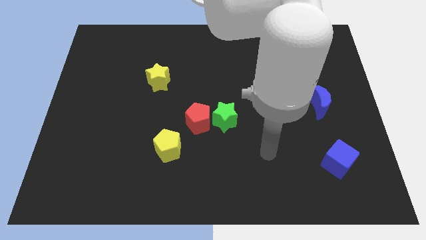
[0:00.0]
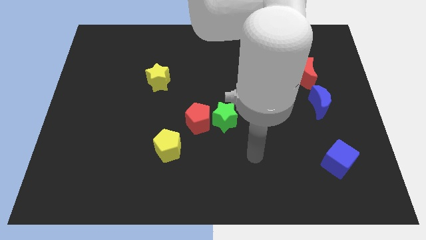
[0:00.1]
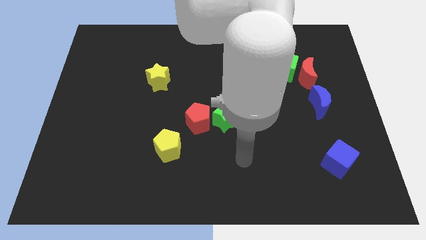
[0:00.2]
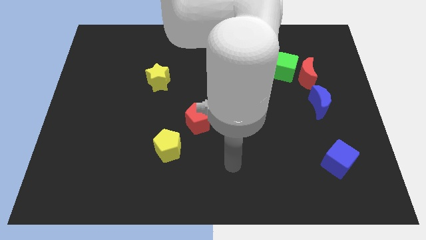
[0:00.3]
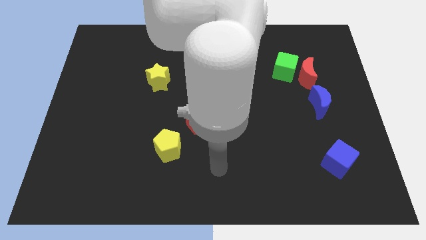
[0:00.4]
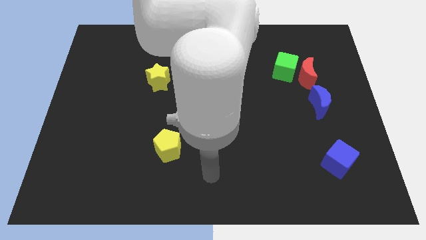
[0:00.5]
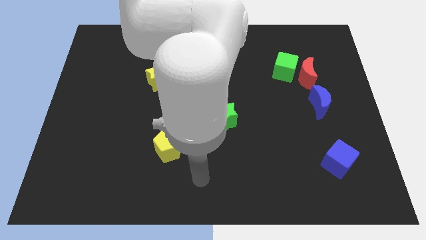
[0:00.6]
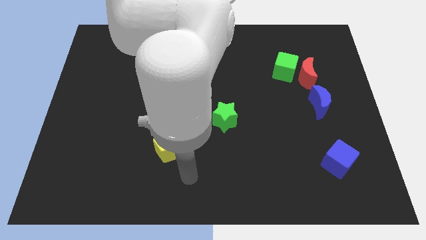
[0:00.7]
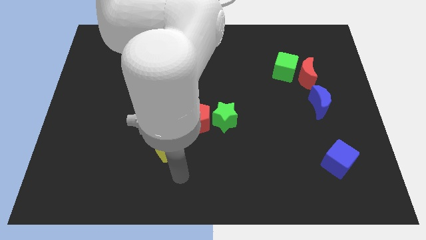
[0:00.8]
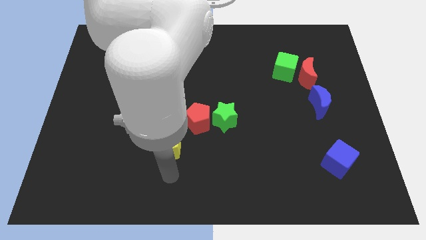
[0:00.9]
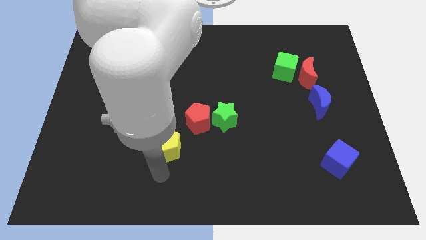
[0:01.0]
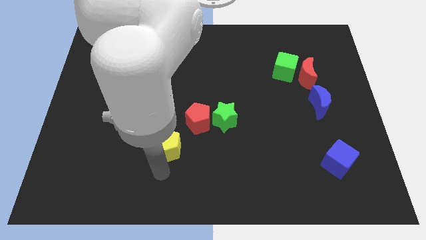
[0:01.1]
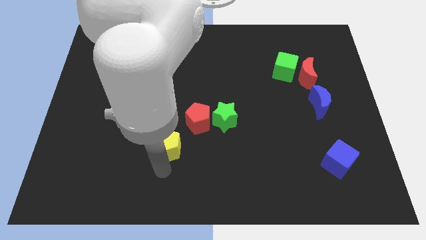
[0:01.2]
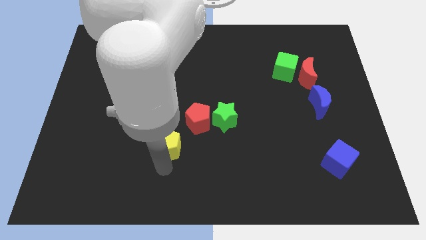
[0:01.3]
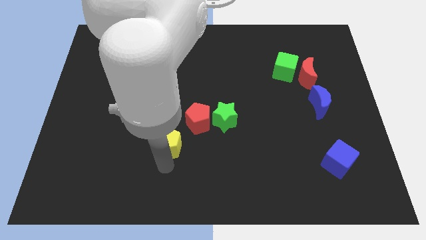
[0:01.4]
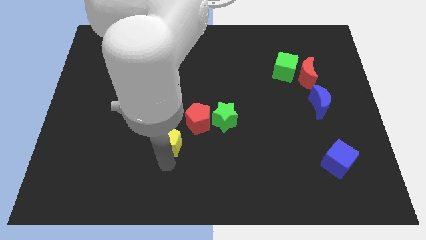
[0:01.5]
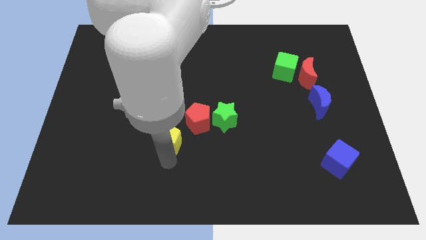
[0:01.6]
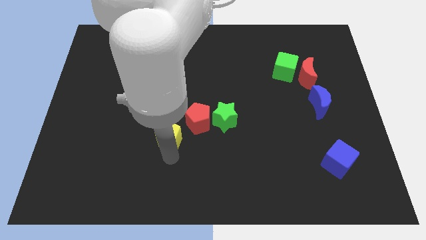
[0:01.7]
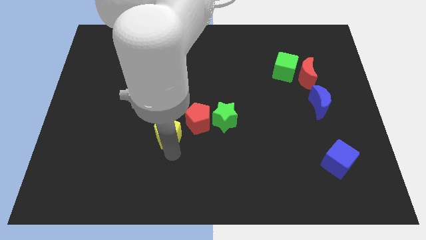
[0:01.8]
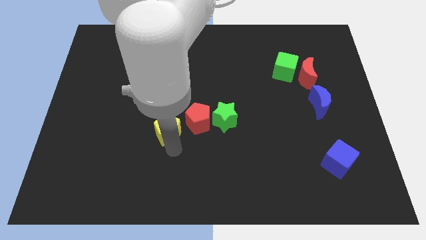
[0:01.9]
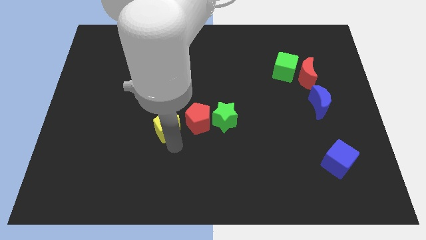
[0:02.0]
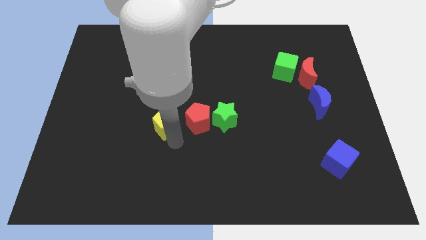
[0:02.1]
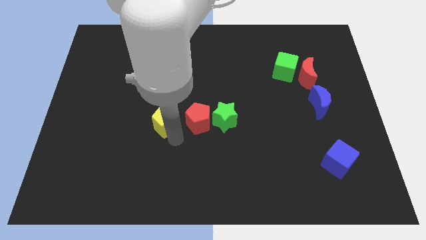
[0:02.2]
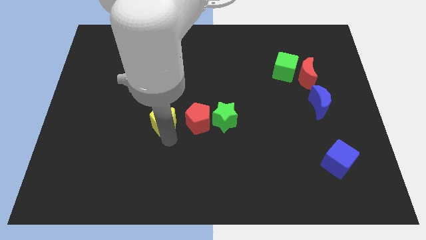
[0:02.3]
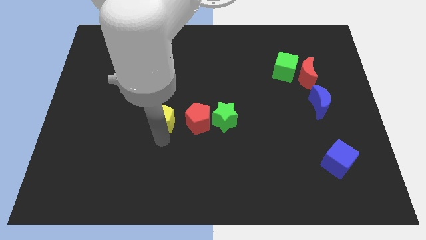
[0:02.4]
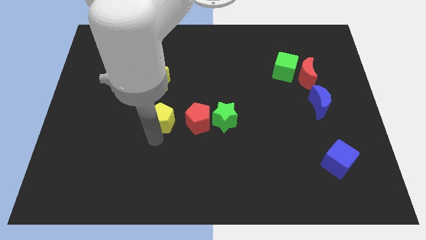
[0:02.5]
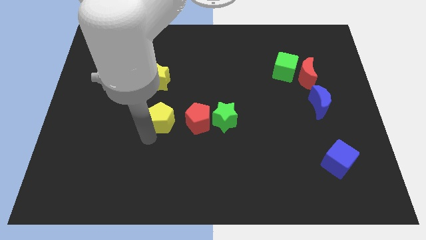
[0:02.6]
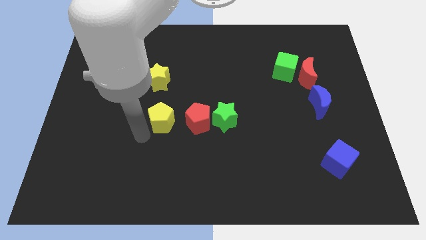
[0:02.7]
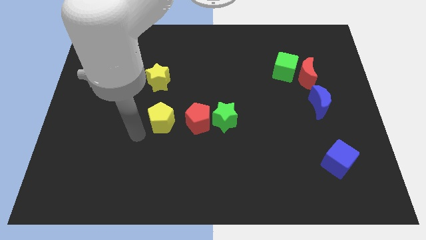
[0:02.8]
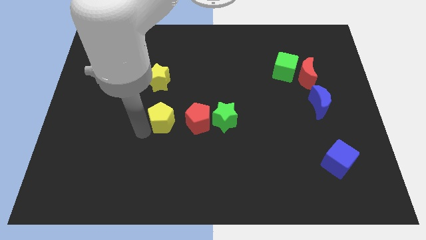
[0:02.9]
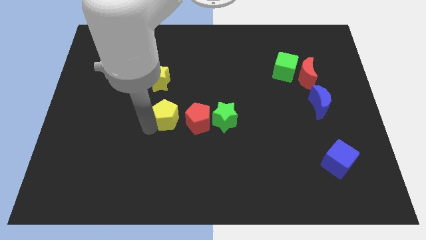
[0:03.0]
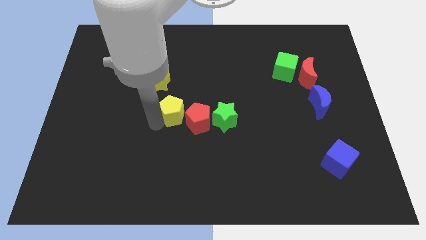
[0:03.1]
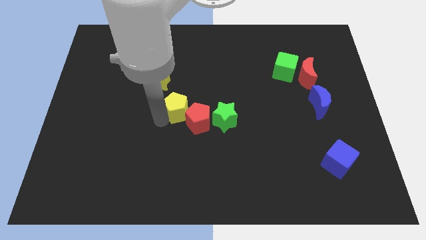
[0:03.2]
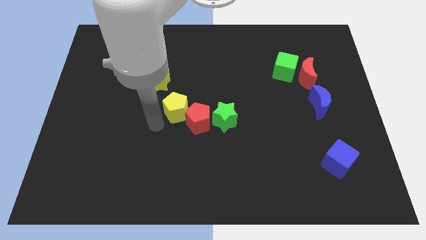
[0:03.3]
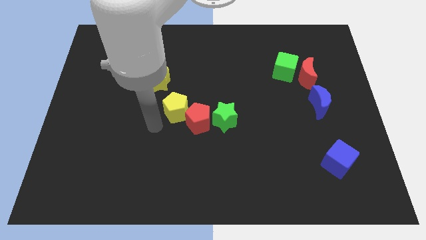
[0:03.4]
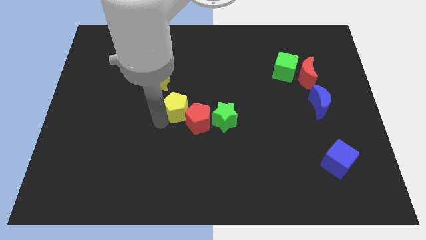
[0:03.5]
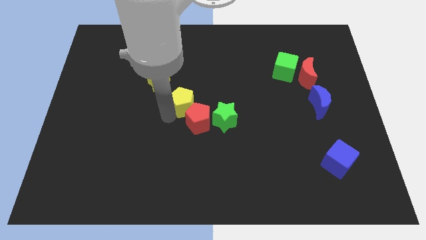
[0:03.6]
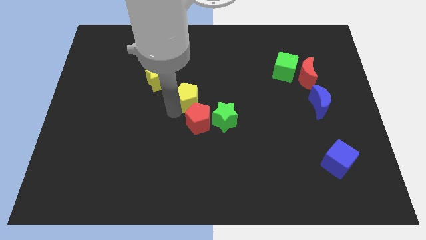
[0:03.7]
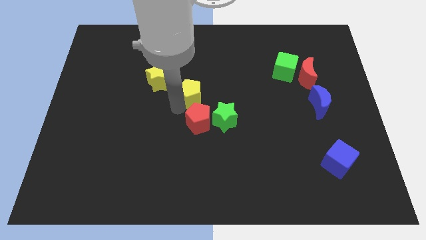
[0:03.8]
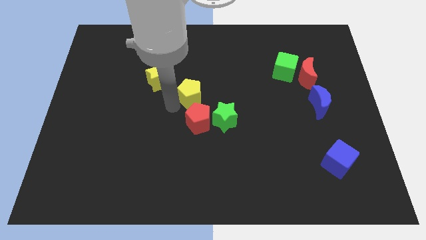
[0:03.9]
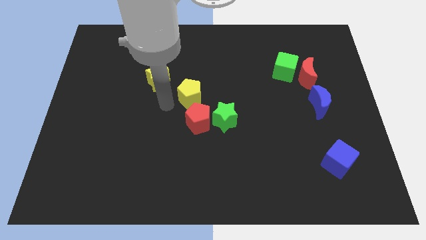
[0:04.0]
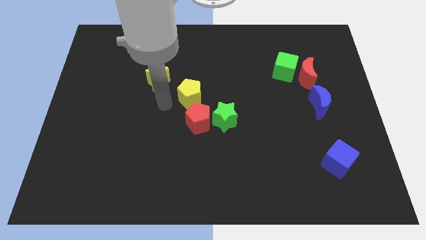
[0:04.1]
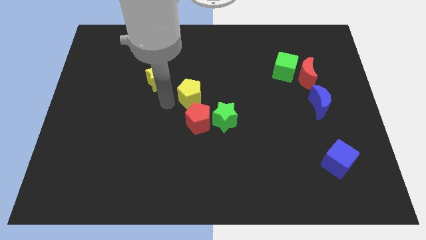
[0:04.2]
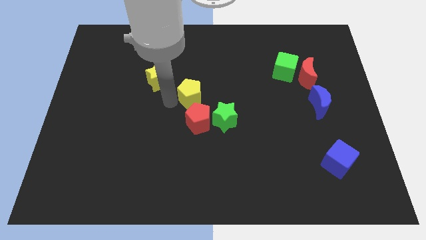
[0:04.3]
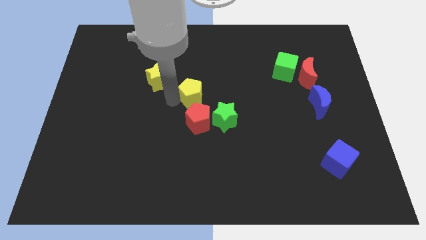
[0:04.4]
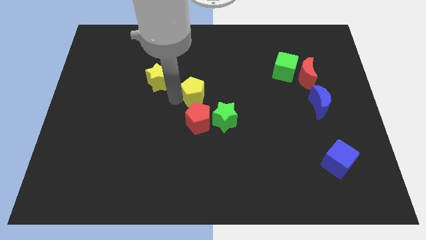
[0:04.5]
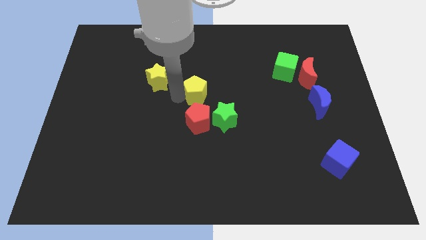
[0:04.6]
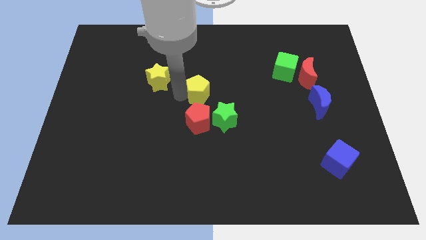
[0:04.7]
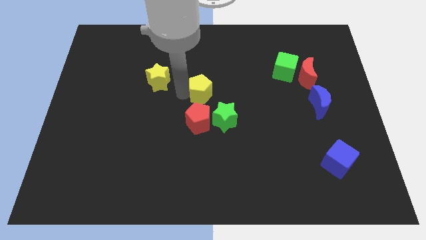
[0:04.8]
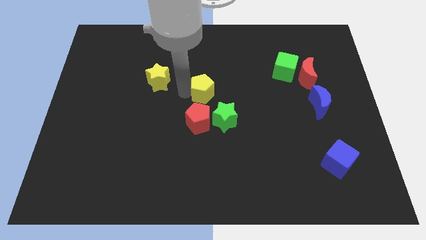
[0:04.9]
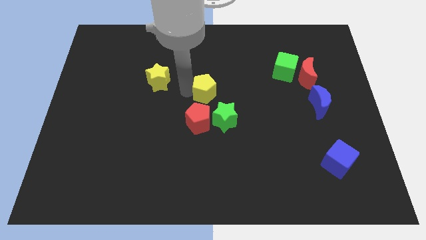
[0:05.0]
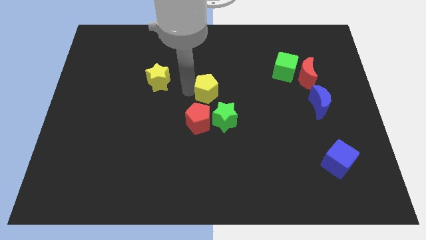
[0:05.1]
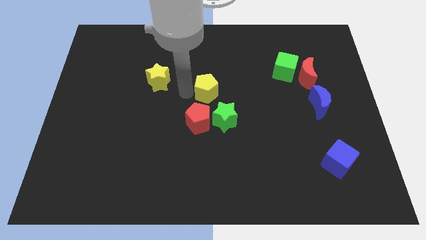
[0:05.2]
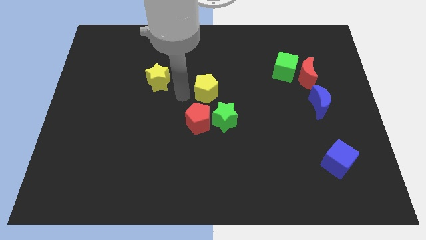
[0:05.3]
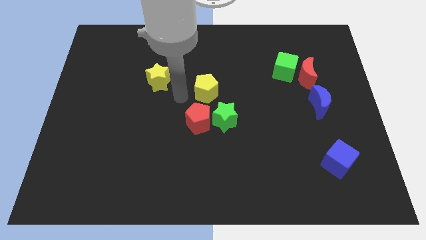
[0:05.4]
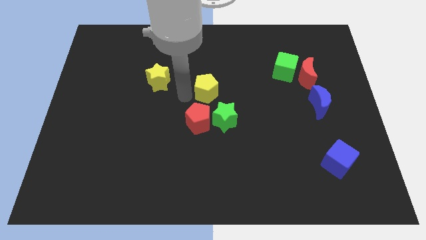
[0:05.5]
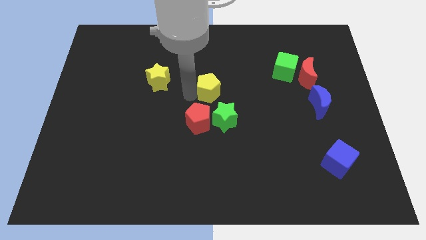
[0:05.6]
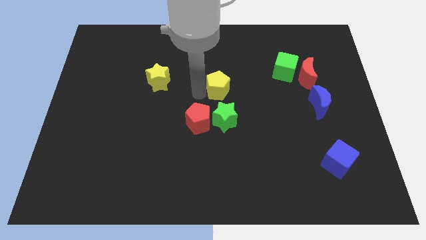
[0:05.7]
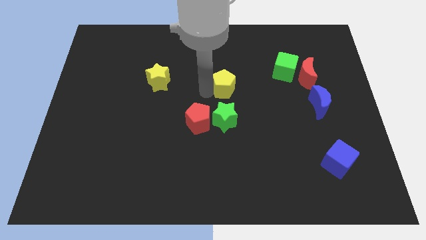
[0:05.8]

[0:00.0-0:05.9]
push the yellow pentagon diagonally up and to the right

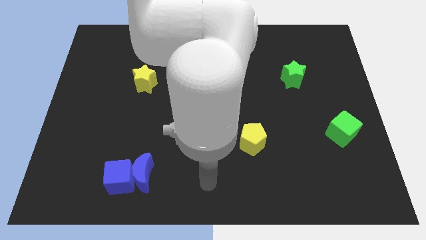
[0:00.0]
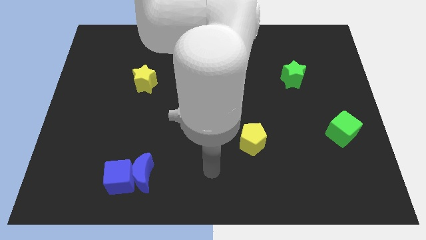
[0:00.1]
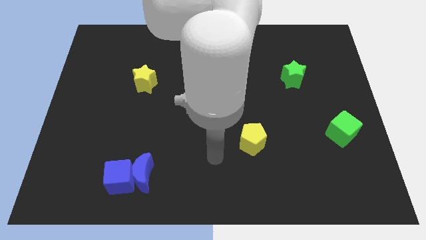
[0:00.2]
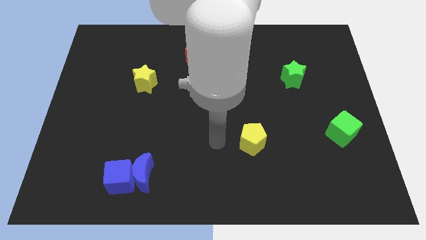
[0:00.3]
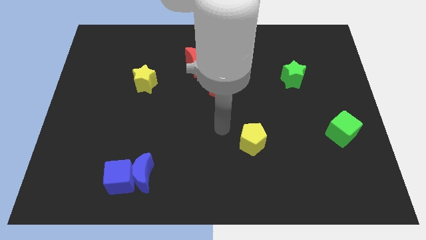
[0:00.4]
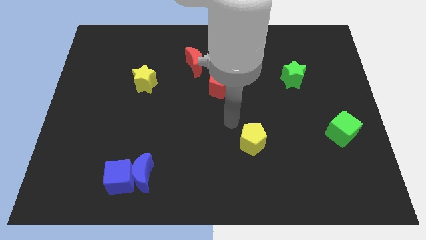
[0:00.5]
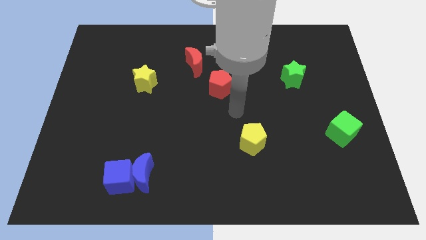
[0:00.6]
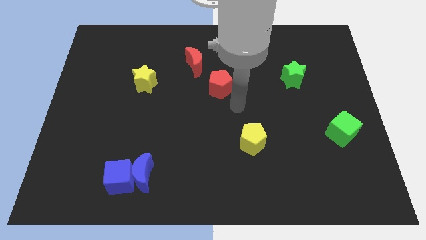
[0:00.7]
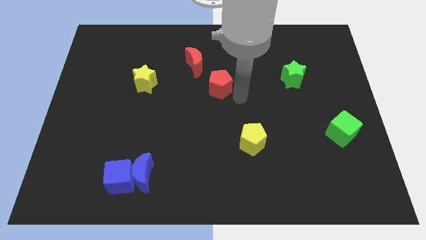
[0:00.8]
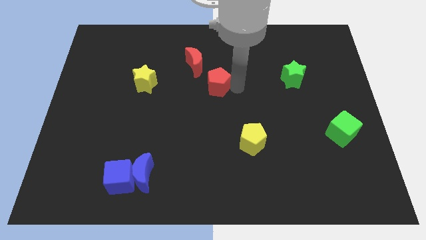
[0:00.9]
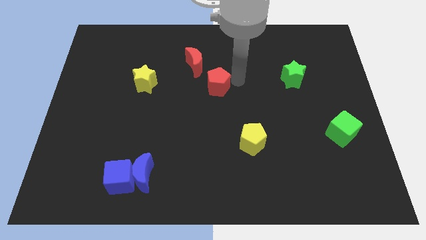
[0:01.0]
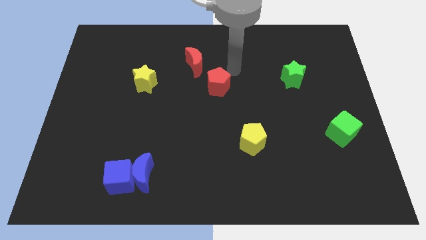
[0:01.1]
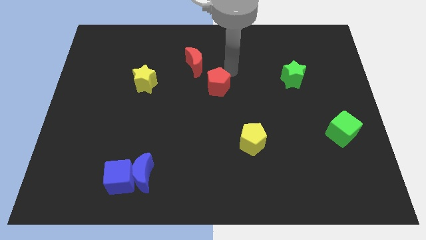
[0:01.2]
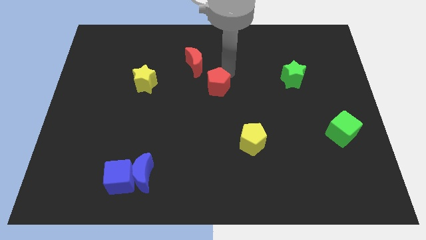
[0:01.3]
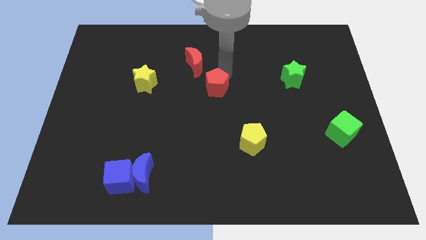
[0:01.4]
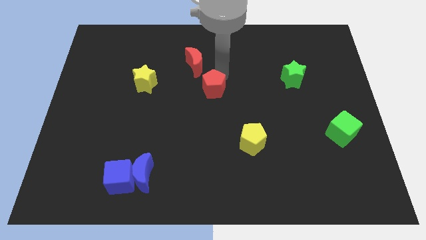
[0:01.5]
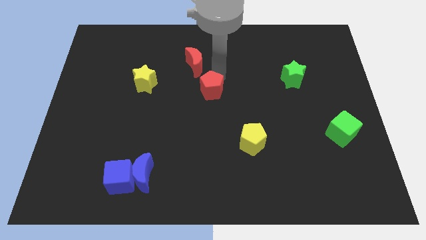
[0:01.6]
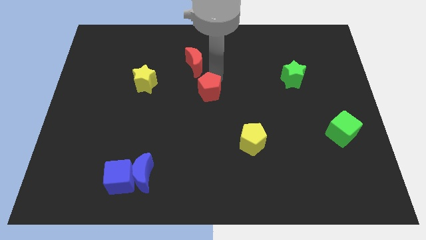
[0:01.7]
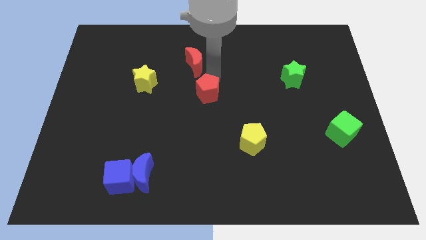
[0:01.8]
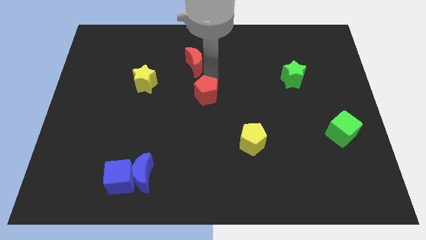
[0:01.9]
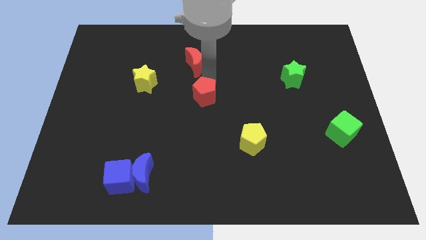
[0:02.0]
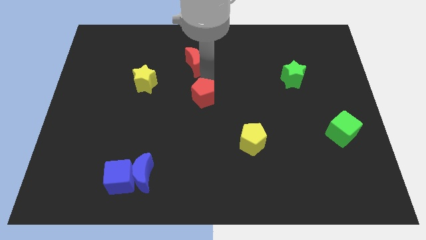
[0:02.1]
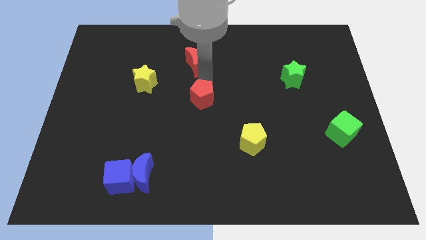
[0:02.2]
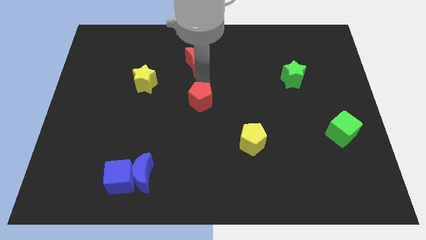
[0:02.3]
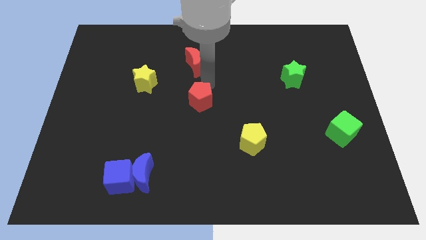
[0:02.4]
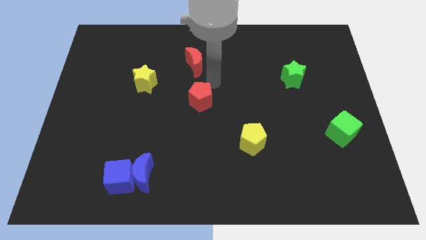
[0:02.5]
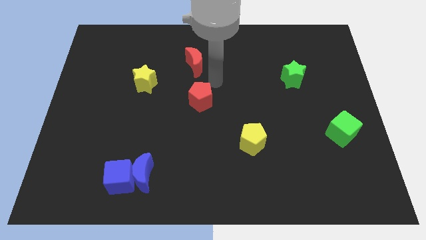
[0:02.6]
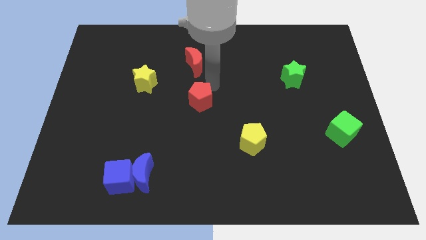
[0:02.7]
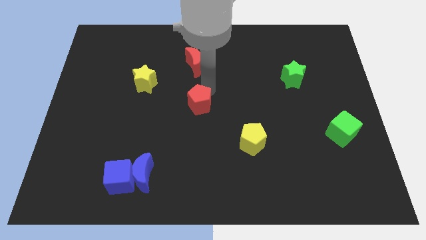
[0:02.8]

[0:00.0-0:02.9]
move the red pentagon somewhat down and then left
